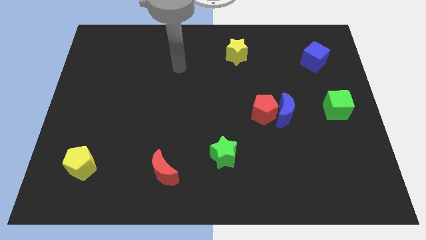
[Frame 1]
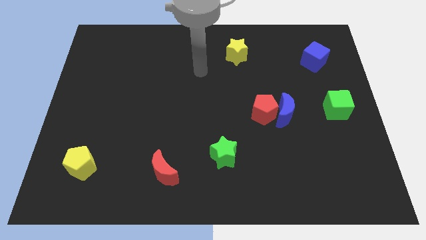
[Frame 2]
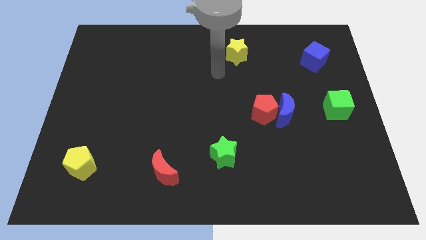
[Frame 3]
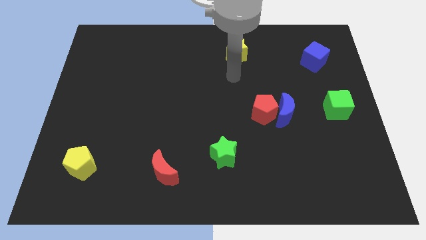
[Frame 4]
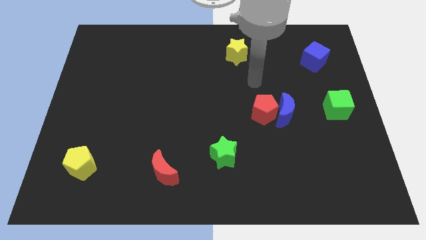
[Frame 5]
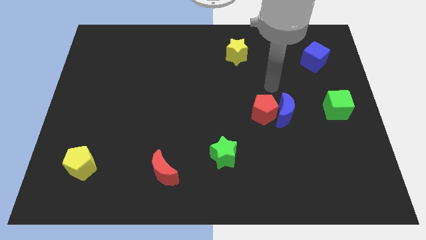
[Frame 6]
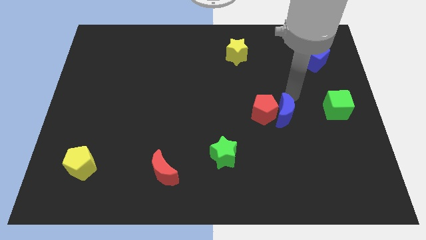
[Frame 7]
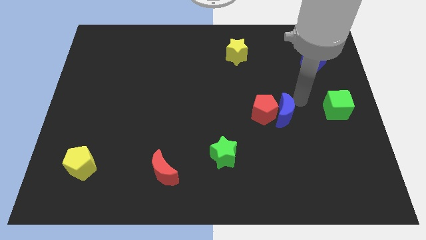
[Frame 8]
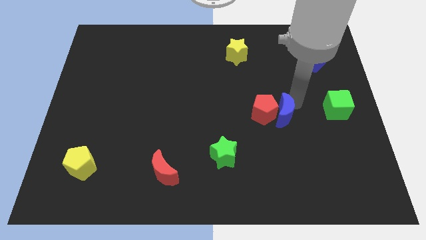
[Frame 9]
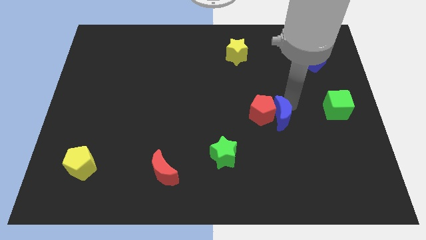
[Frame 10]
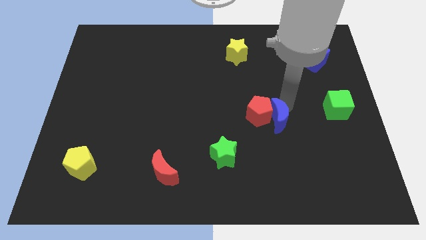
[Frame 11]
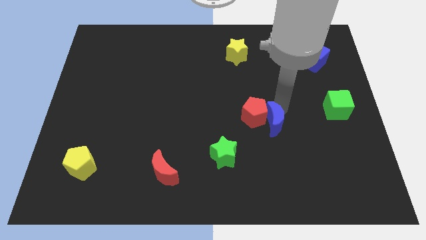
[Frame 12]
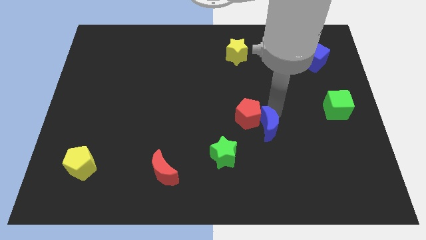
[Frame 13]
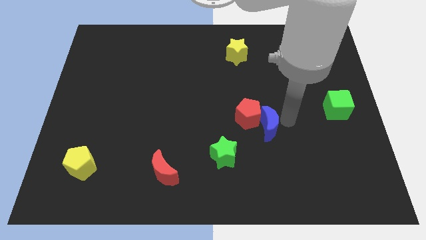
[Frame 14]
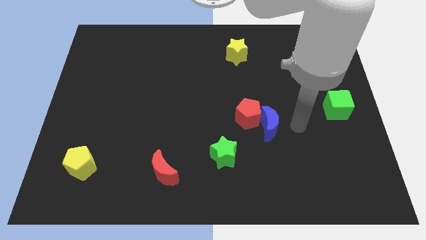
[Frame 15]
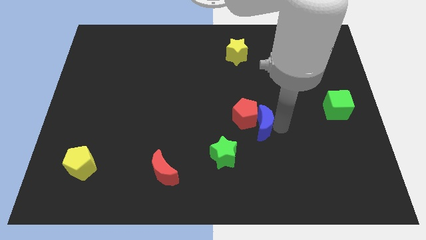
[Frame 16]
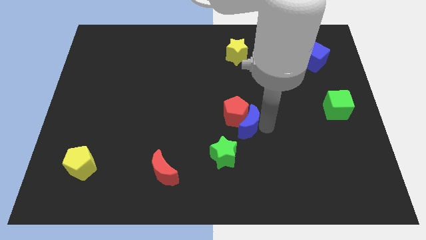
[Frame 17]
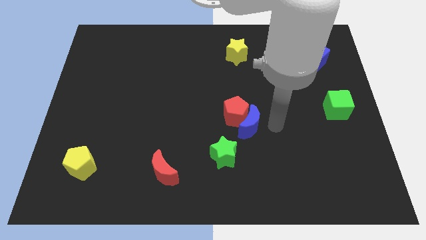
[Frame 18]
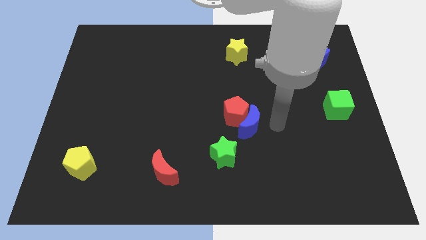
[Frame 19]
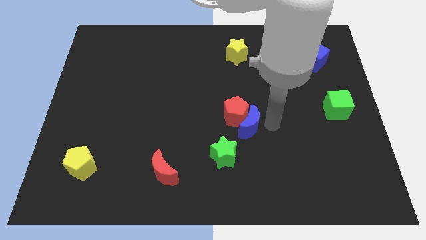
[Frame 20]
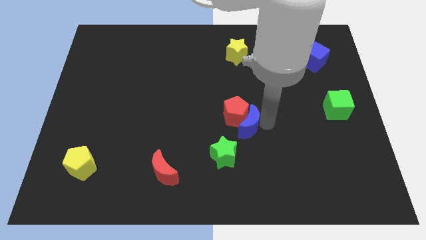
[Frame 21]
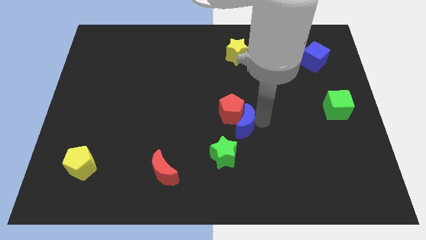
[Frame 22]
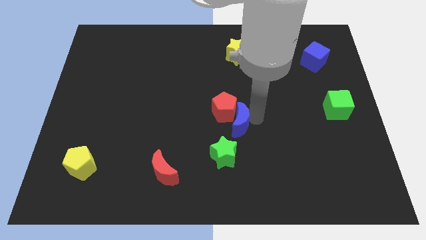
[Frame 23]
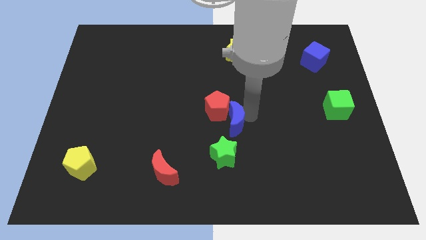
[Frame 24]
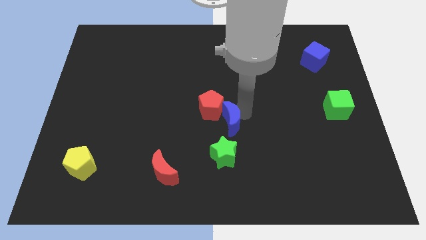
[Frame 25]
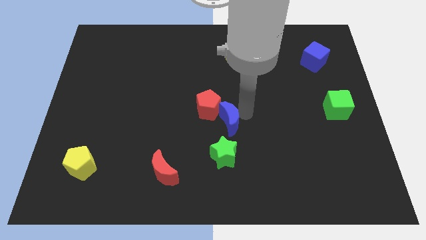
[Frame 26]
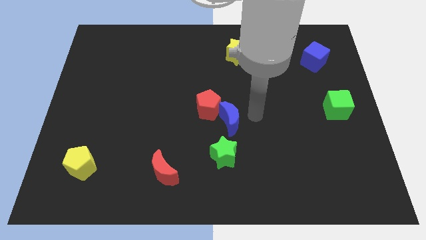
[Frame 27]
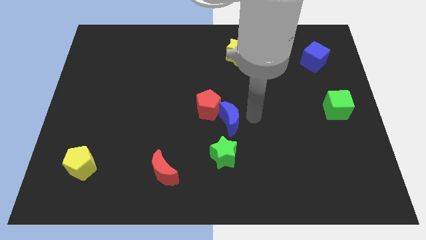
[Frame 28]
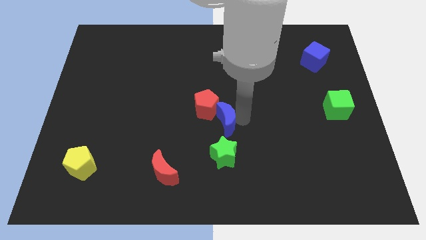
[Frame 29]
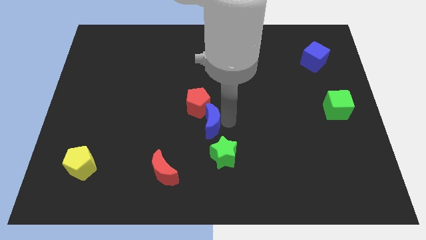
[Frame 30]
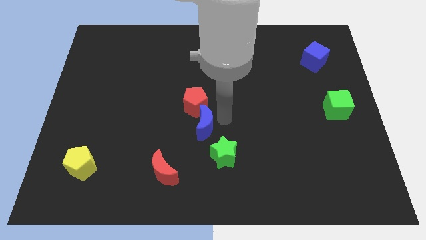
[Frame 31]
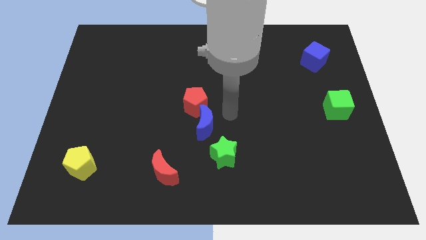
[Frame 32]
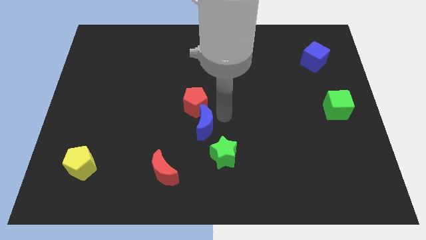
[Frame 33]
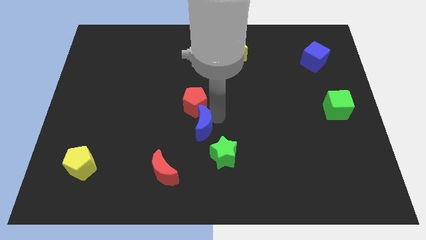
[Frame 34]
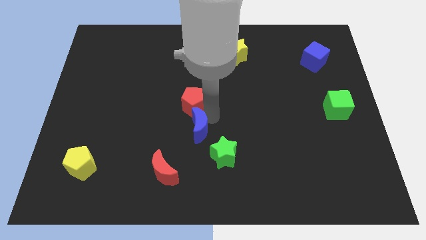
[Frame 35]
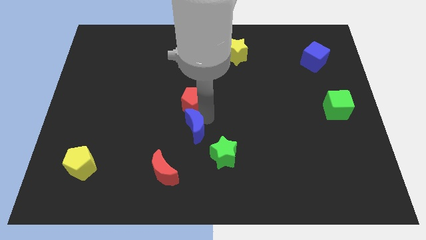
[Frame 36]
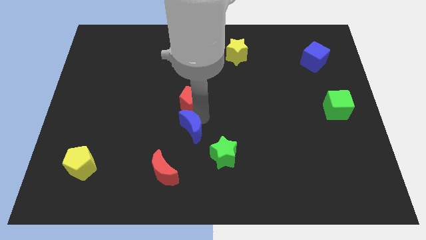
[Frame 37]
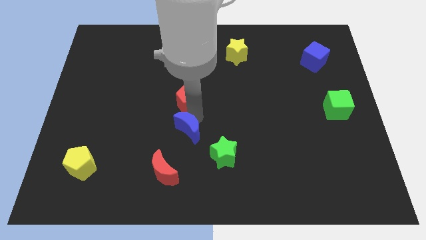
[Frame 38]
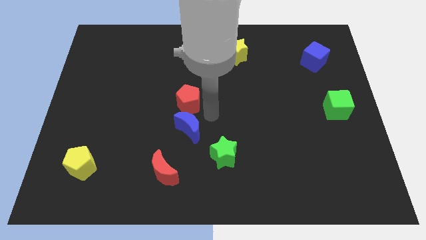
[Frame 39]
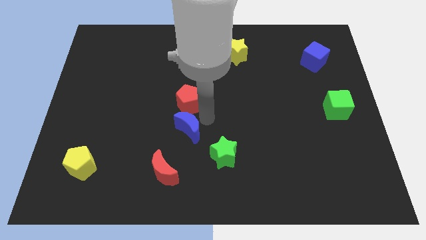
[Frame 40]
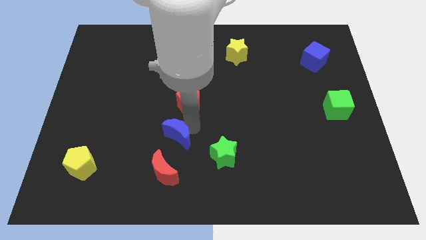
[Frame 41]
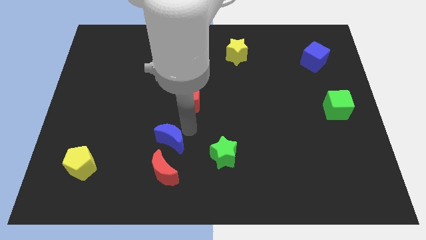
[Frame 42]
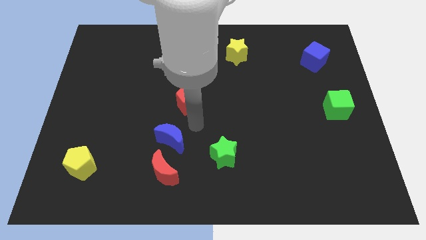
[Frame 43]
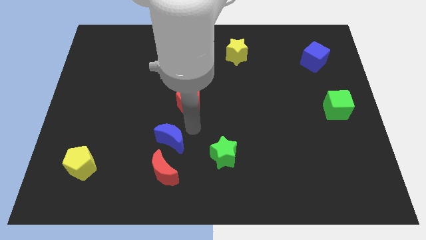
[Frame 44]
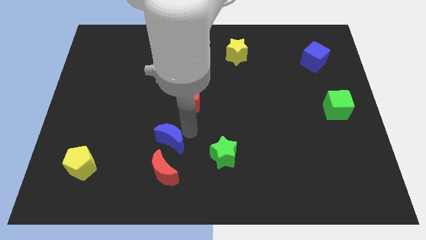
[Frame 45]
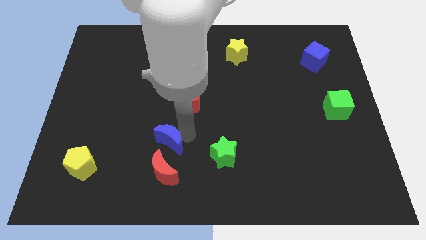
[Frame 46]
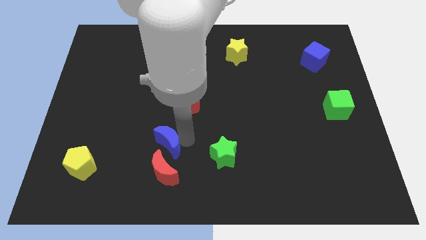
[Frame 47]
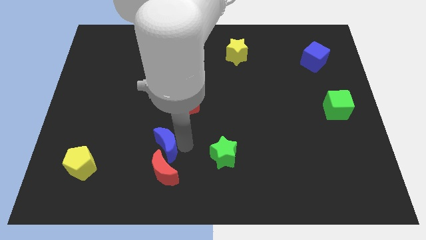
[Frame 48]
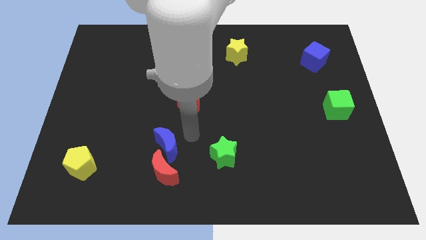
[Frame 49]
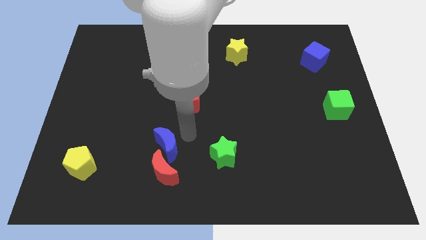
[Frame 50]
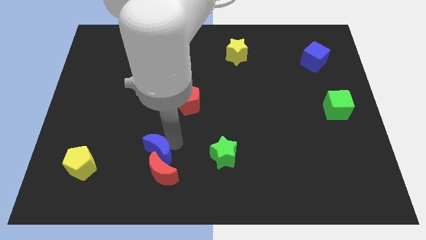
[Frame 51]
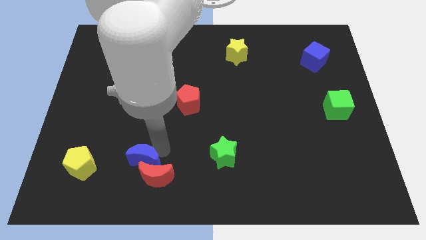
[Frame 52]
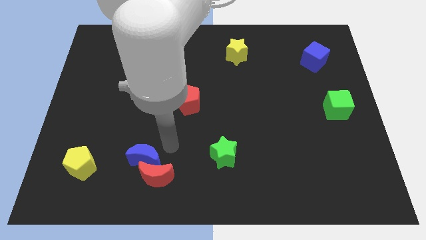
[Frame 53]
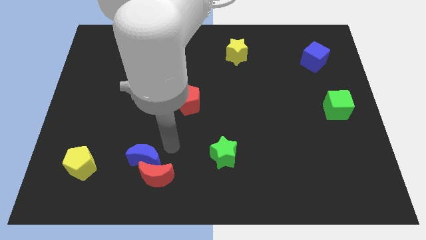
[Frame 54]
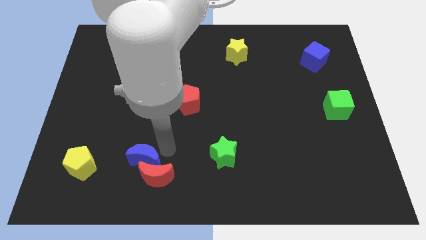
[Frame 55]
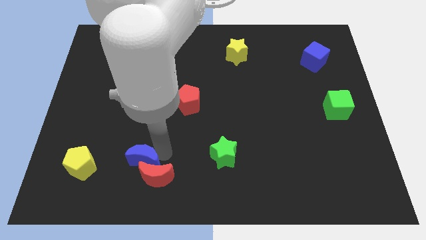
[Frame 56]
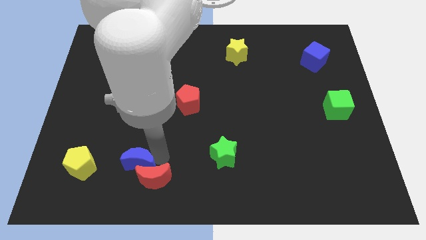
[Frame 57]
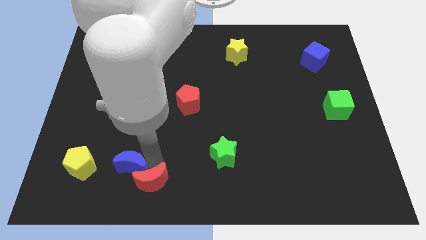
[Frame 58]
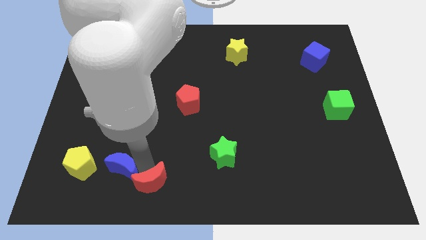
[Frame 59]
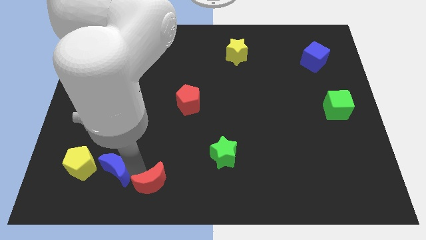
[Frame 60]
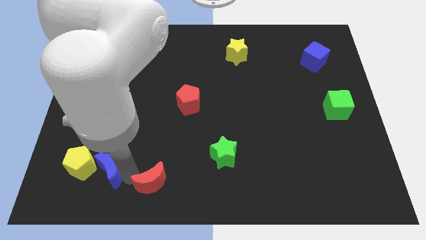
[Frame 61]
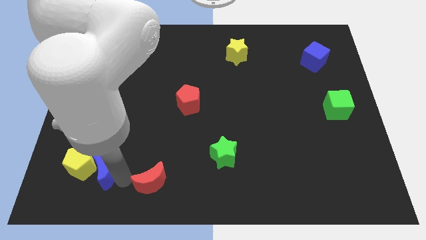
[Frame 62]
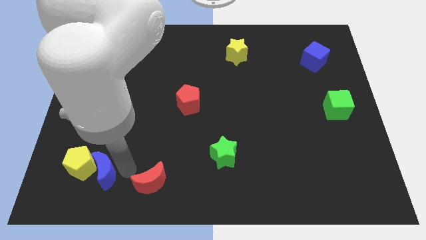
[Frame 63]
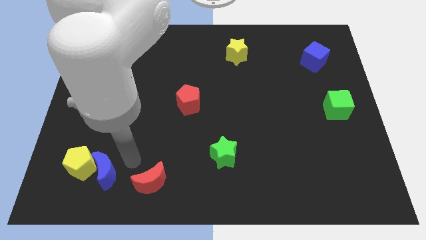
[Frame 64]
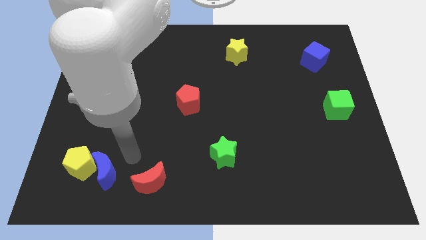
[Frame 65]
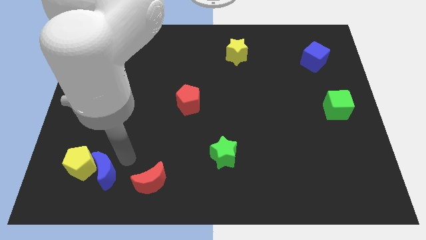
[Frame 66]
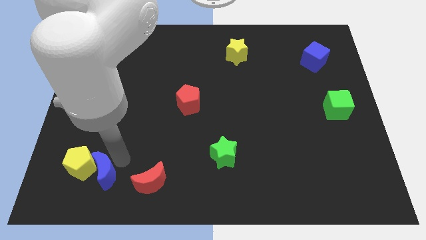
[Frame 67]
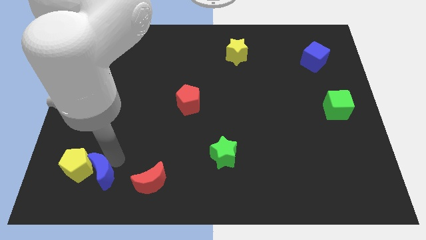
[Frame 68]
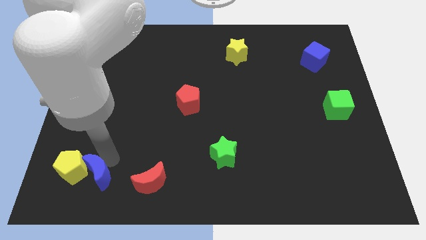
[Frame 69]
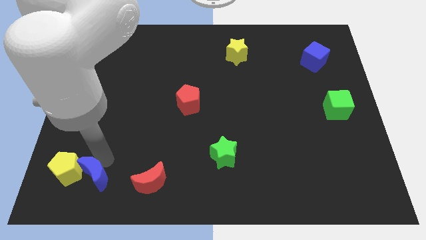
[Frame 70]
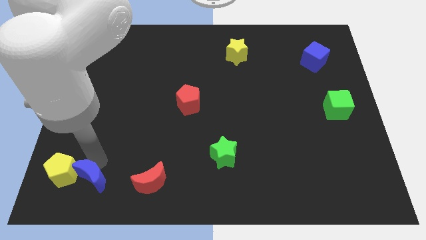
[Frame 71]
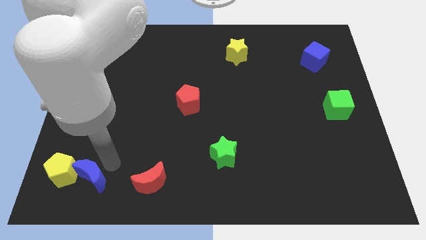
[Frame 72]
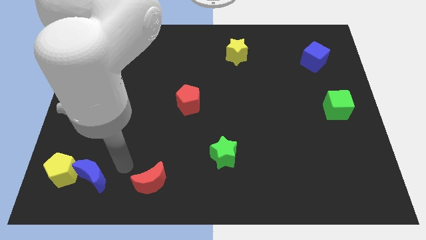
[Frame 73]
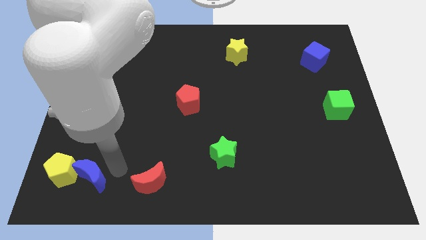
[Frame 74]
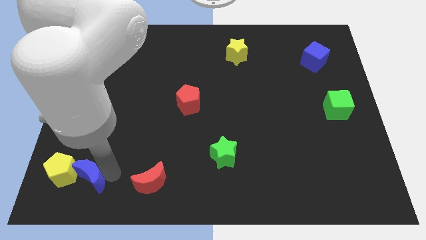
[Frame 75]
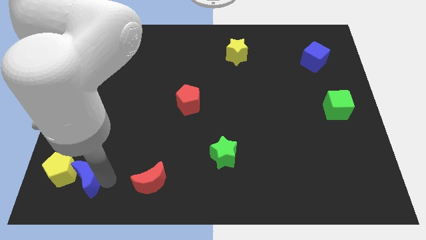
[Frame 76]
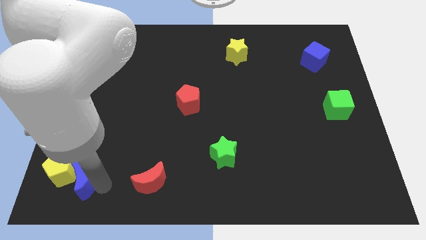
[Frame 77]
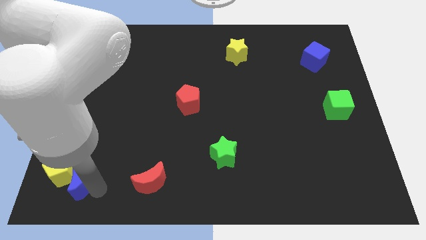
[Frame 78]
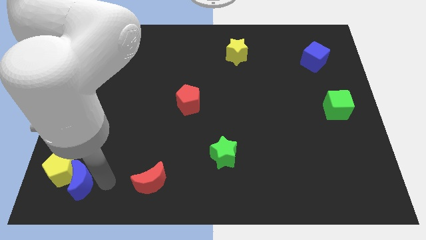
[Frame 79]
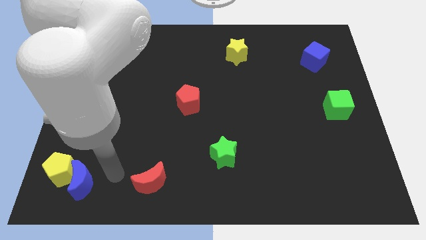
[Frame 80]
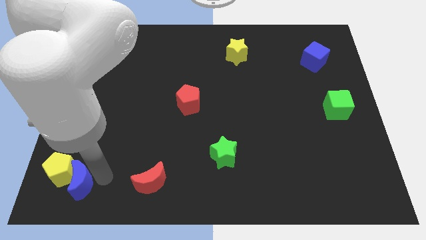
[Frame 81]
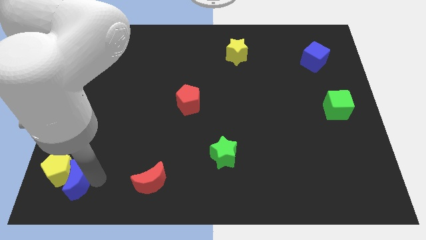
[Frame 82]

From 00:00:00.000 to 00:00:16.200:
put the blue moon to the bottom left corner
